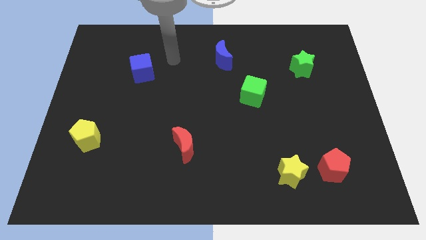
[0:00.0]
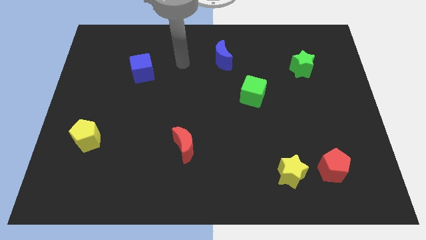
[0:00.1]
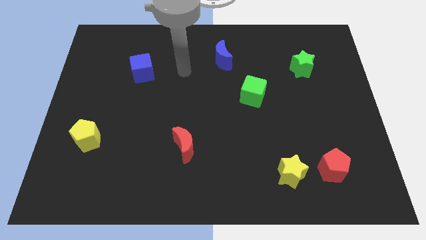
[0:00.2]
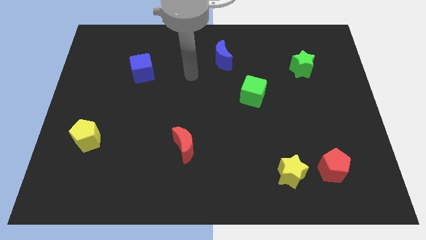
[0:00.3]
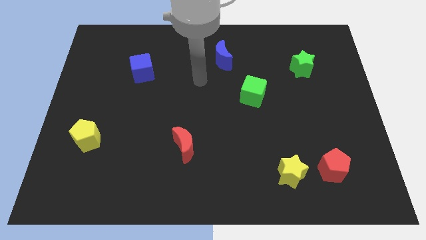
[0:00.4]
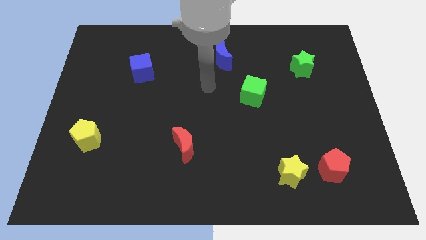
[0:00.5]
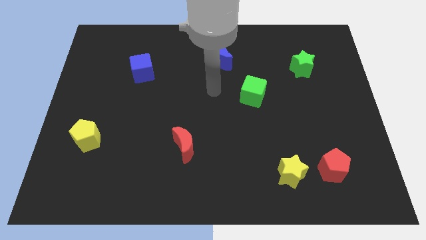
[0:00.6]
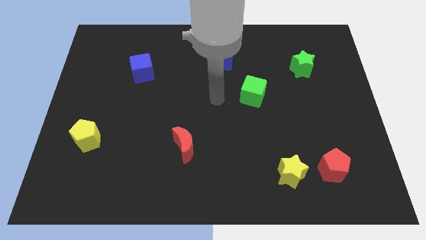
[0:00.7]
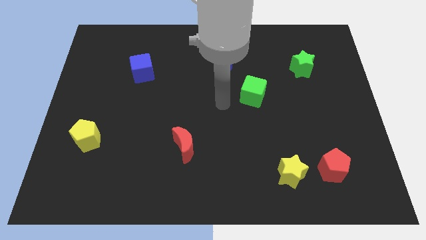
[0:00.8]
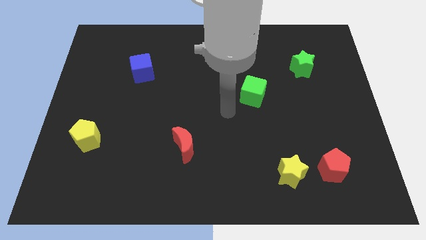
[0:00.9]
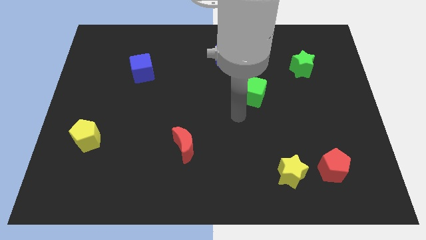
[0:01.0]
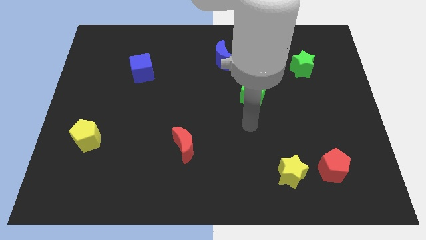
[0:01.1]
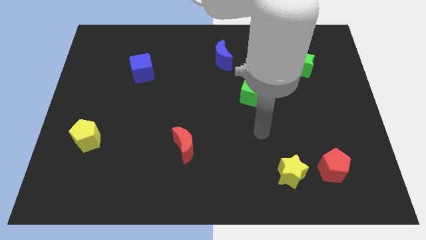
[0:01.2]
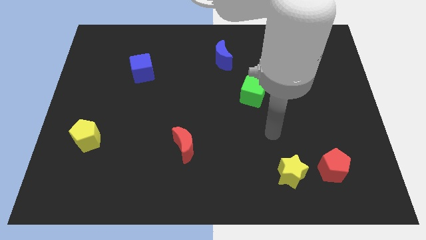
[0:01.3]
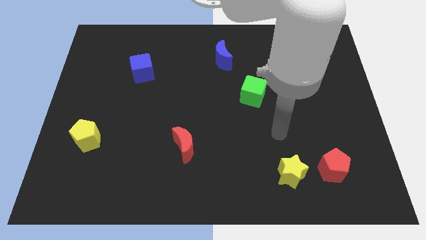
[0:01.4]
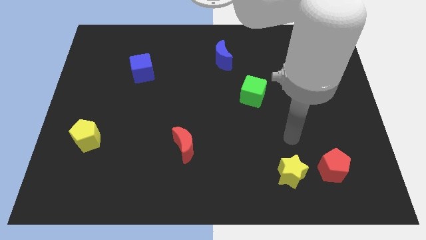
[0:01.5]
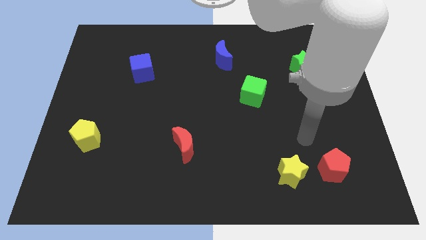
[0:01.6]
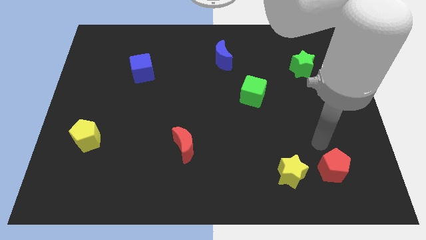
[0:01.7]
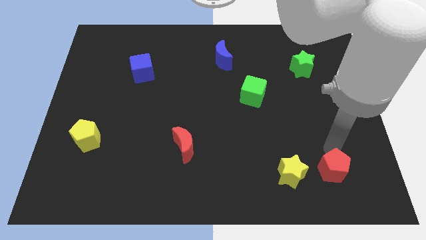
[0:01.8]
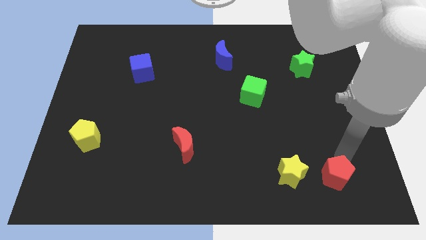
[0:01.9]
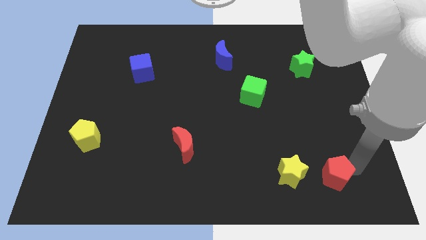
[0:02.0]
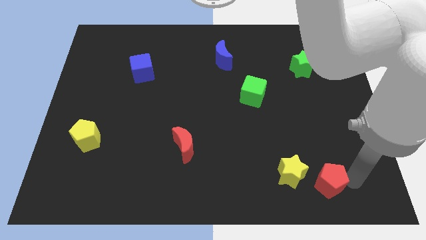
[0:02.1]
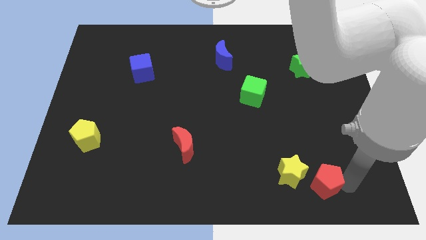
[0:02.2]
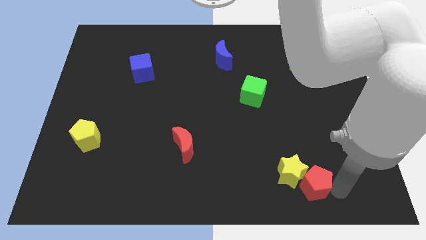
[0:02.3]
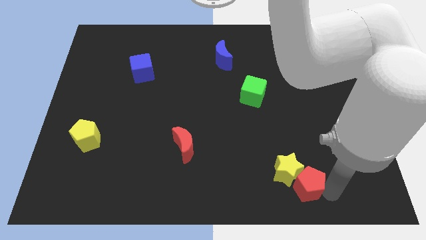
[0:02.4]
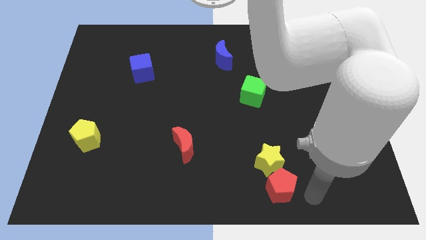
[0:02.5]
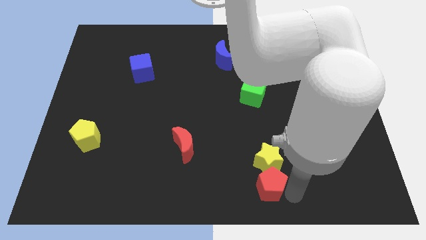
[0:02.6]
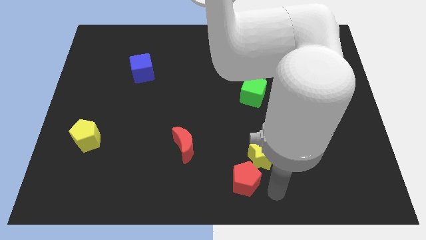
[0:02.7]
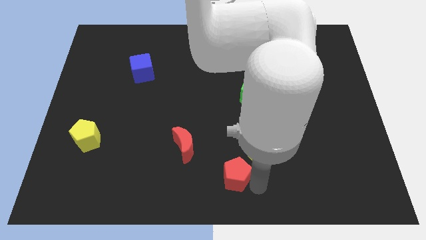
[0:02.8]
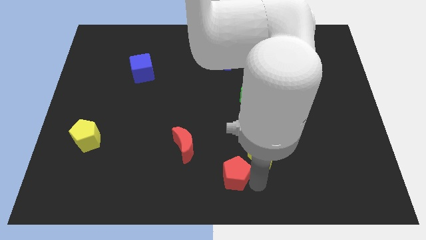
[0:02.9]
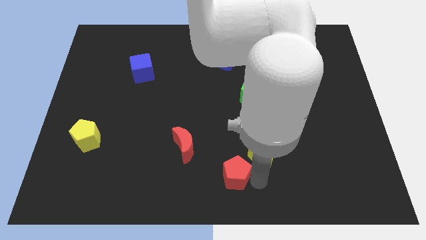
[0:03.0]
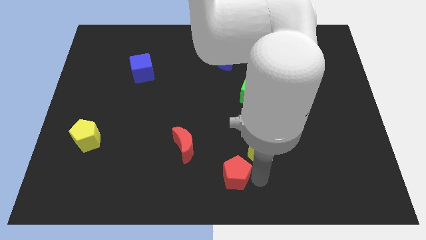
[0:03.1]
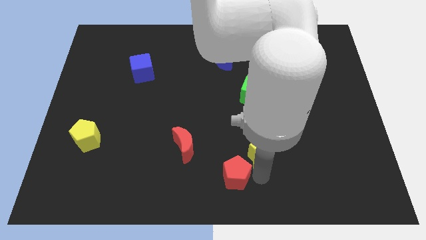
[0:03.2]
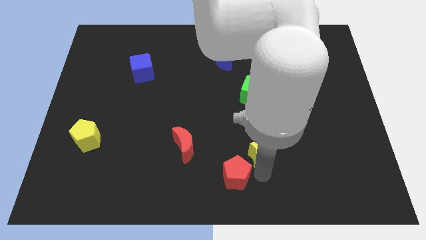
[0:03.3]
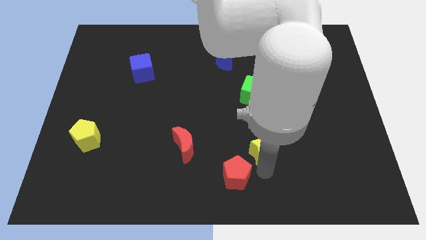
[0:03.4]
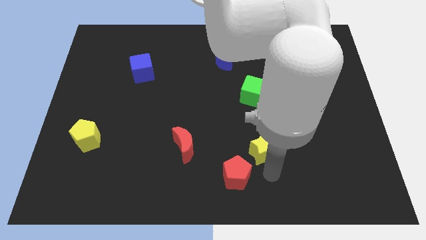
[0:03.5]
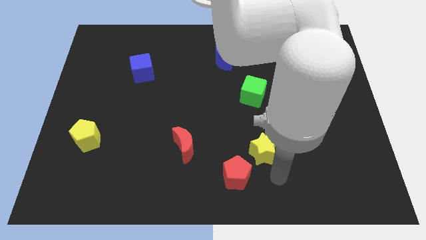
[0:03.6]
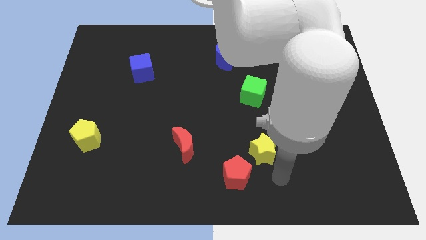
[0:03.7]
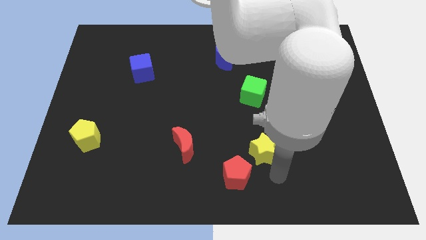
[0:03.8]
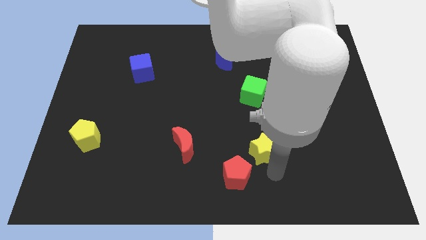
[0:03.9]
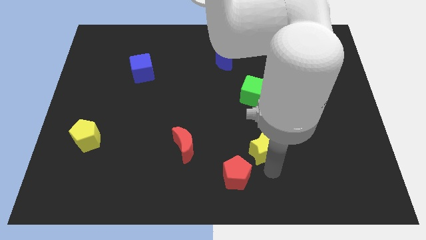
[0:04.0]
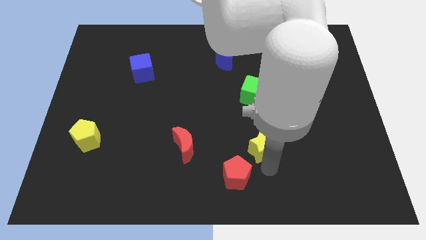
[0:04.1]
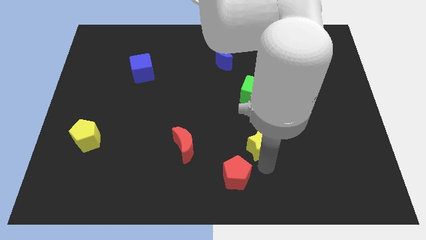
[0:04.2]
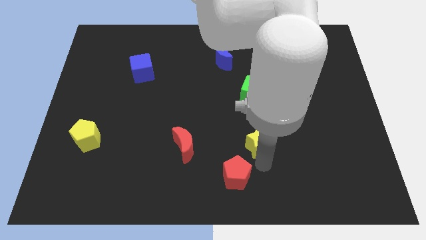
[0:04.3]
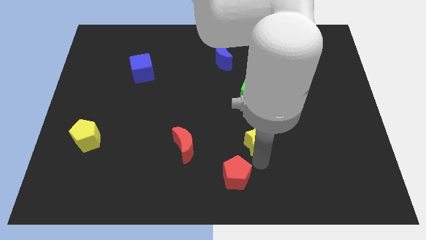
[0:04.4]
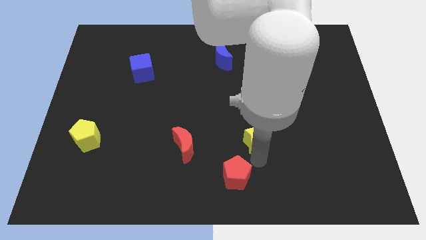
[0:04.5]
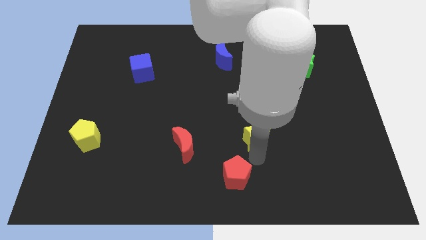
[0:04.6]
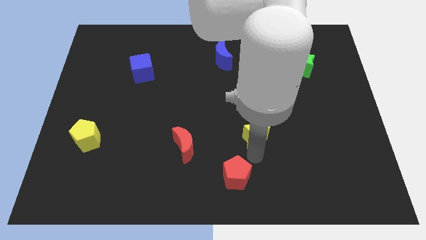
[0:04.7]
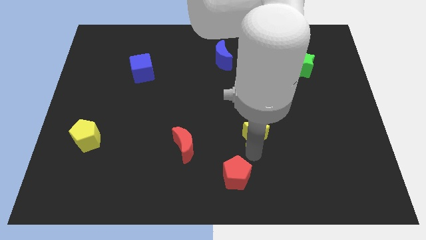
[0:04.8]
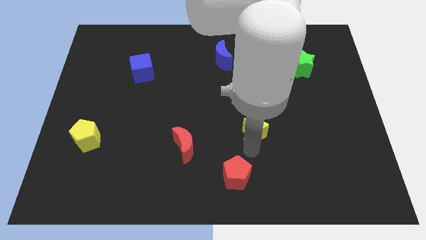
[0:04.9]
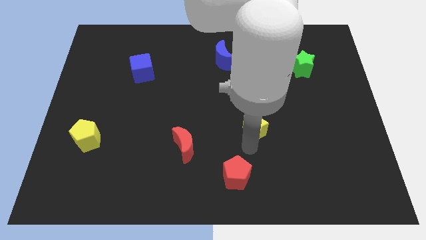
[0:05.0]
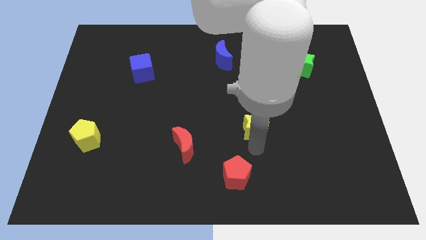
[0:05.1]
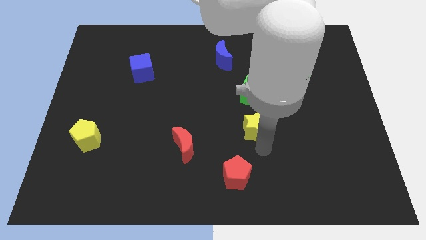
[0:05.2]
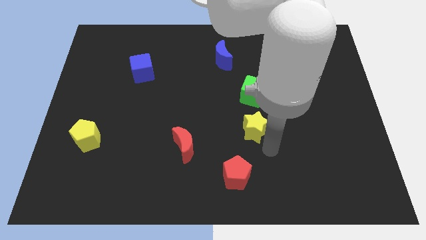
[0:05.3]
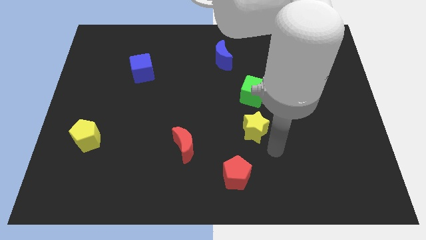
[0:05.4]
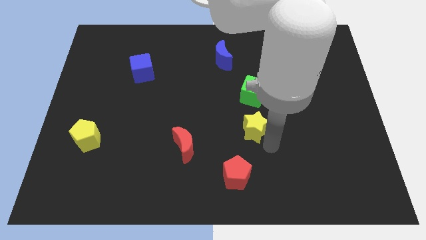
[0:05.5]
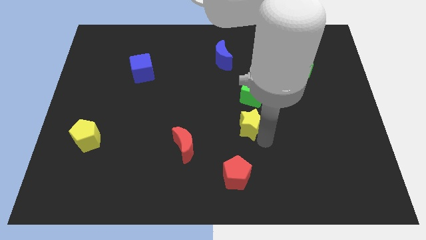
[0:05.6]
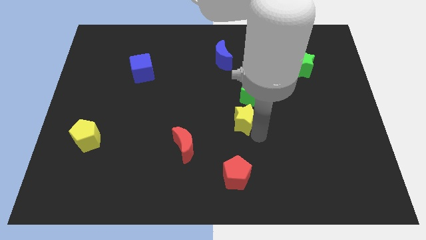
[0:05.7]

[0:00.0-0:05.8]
move the yellow star to the bottom left side of the green cube
